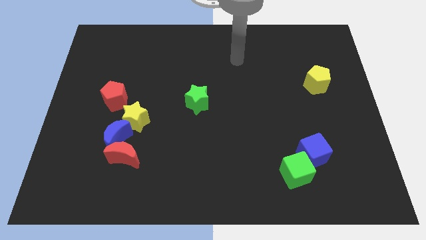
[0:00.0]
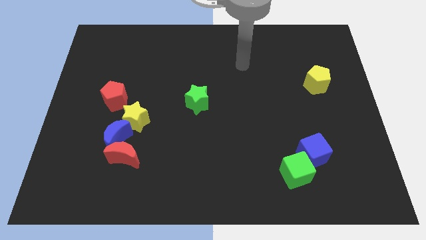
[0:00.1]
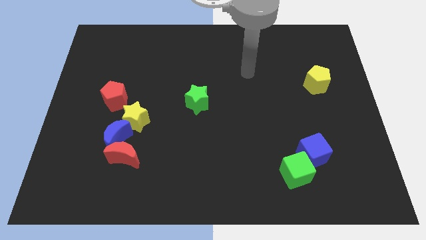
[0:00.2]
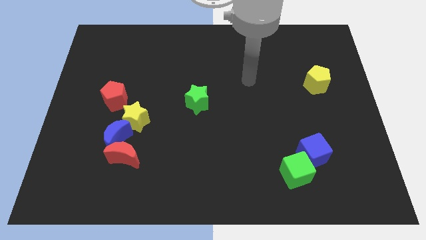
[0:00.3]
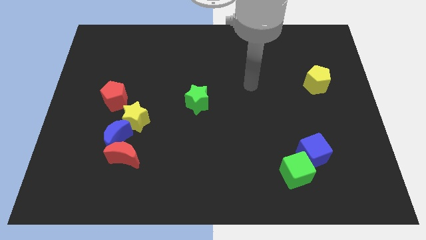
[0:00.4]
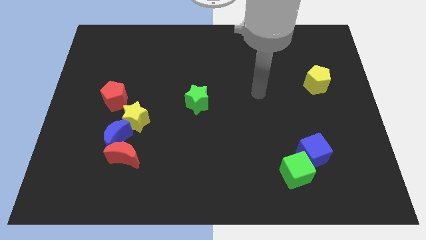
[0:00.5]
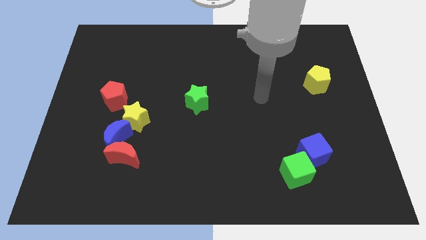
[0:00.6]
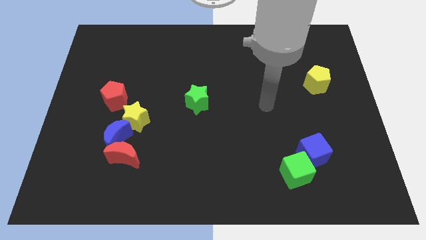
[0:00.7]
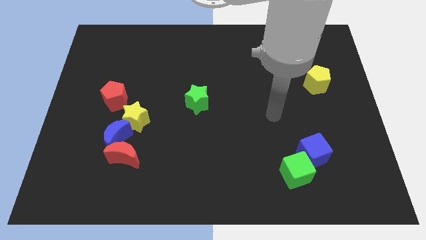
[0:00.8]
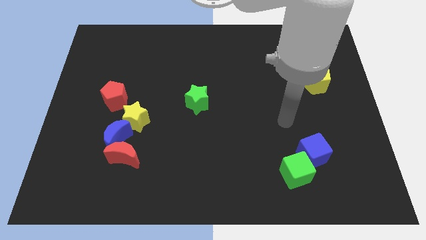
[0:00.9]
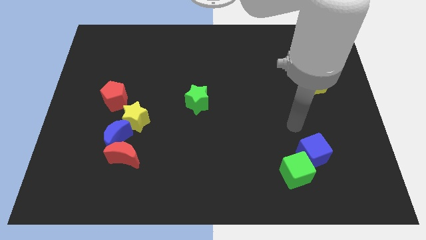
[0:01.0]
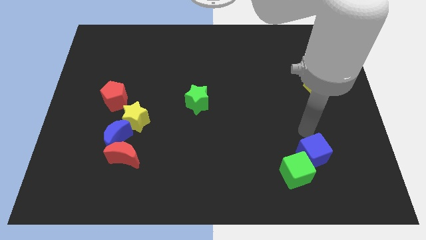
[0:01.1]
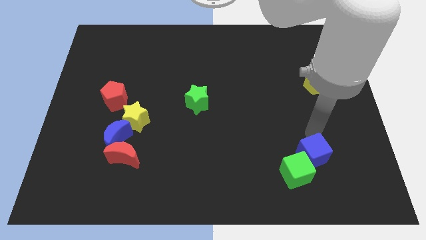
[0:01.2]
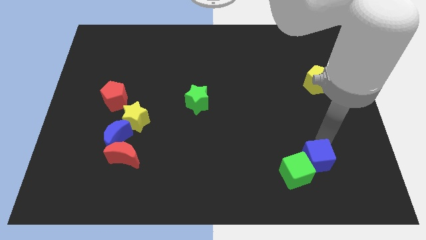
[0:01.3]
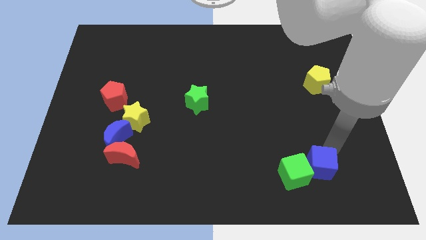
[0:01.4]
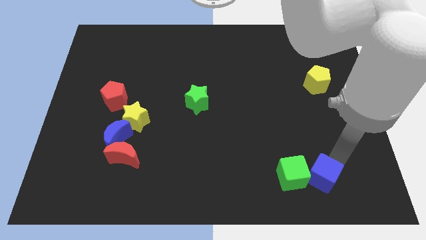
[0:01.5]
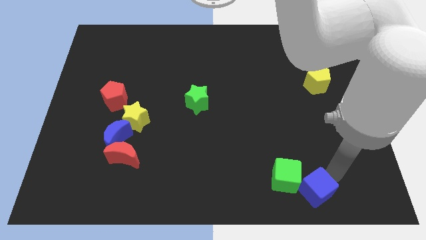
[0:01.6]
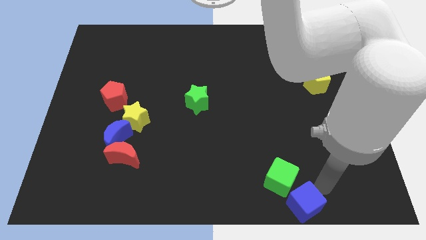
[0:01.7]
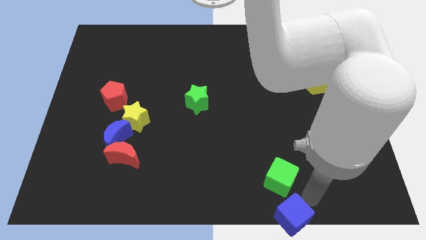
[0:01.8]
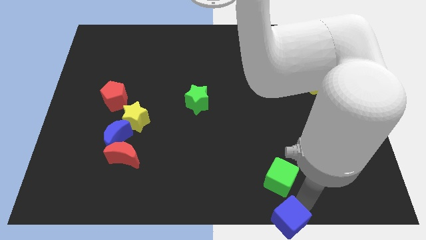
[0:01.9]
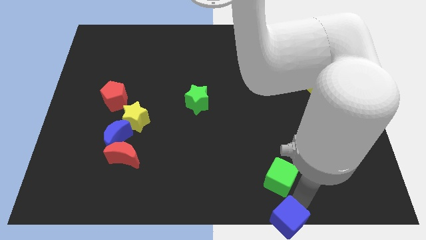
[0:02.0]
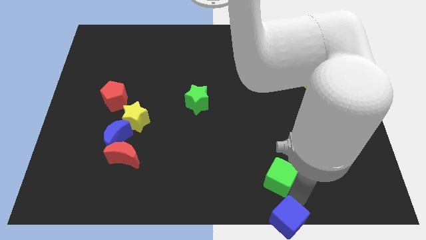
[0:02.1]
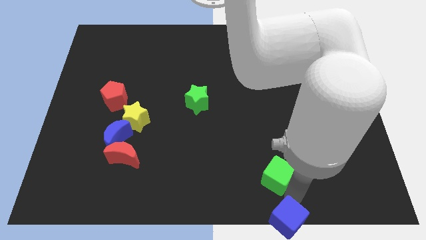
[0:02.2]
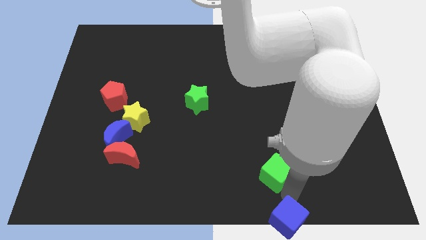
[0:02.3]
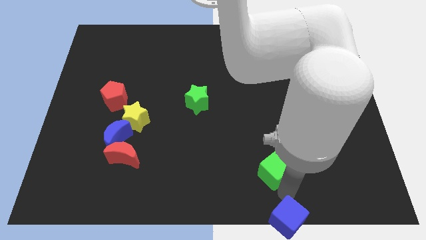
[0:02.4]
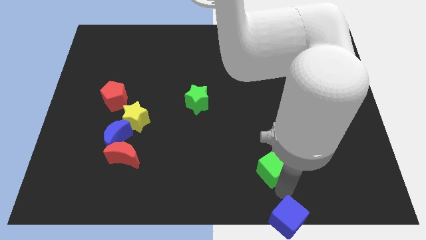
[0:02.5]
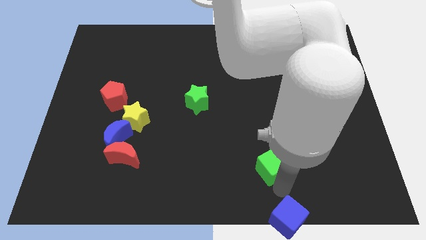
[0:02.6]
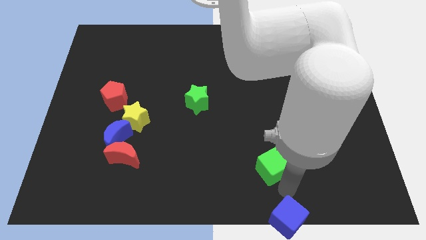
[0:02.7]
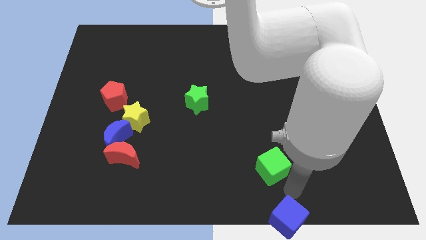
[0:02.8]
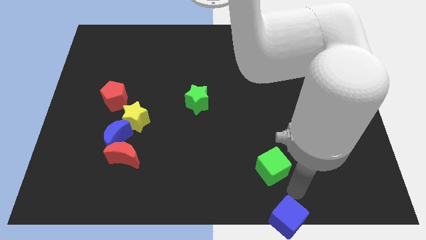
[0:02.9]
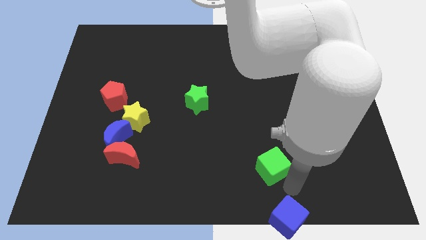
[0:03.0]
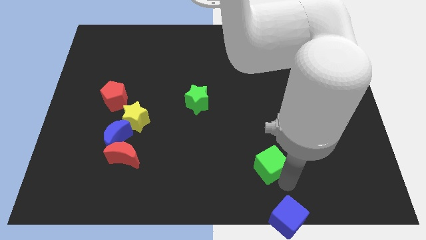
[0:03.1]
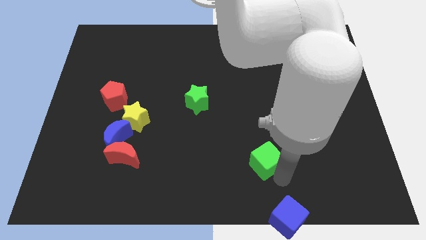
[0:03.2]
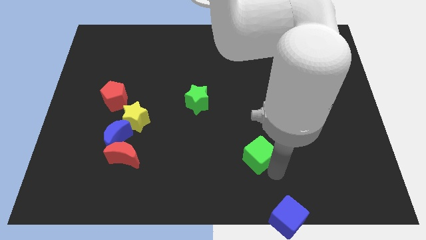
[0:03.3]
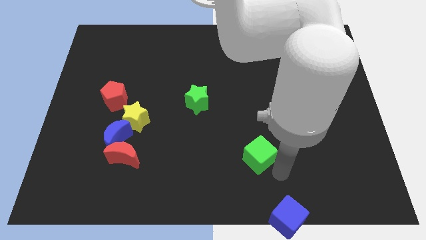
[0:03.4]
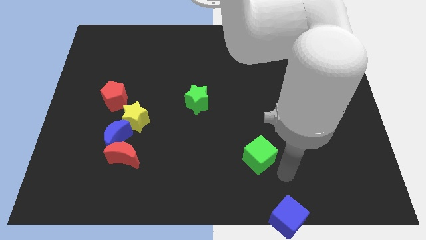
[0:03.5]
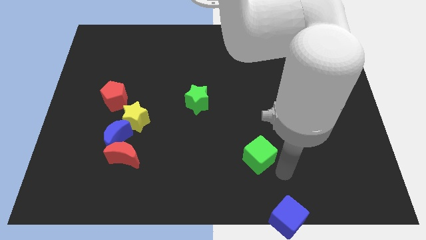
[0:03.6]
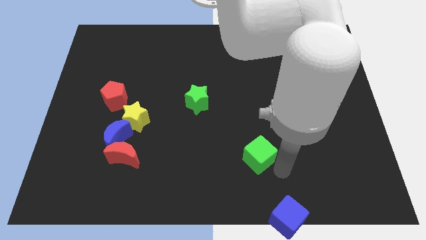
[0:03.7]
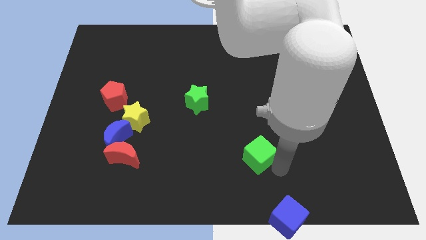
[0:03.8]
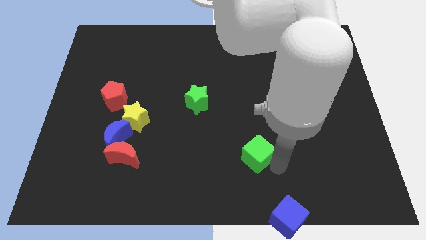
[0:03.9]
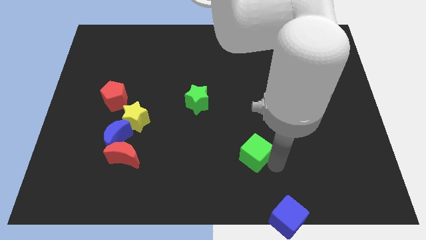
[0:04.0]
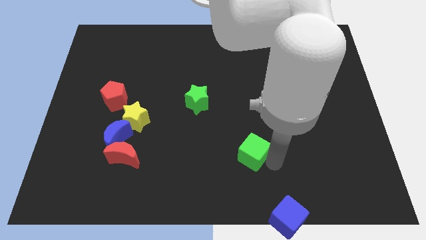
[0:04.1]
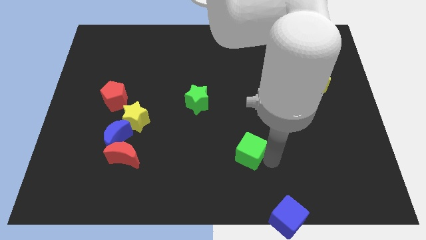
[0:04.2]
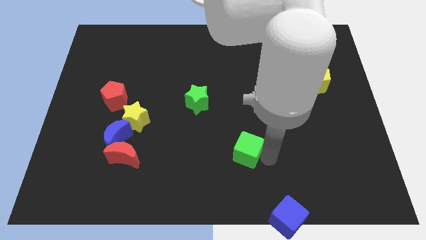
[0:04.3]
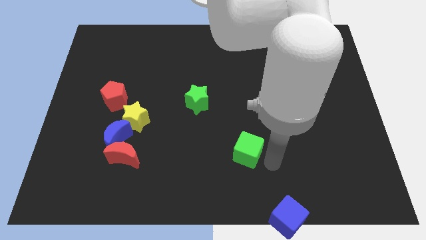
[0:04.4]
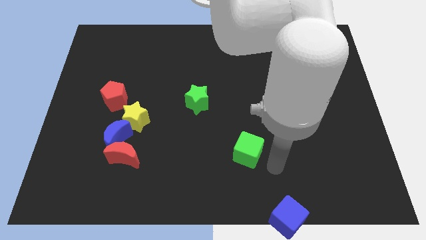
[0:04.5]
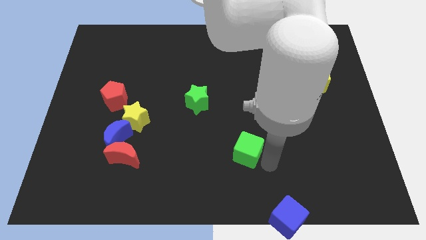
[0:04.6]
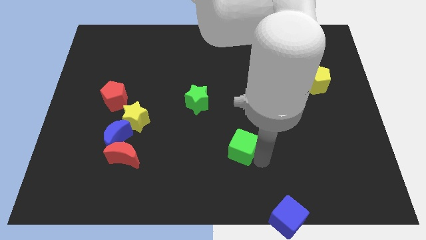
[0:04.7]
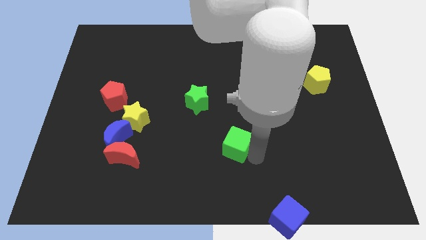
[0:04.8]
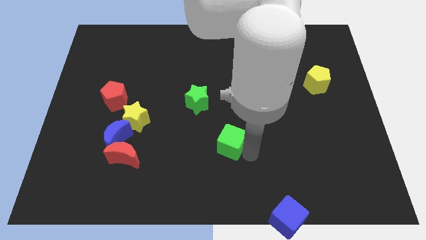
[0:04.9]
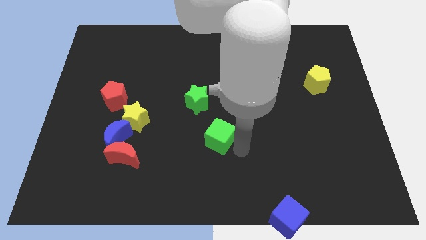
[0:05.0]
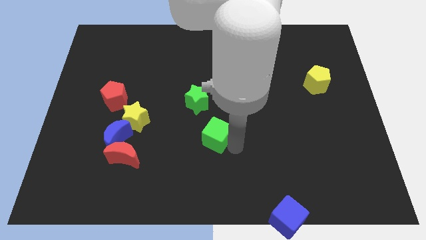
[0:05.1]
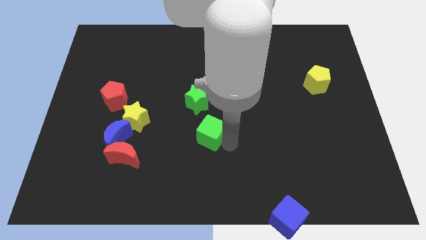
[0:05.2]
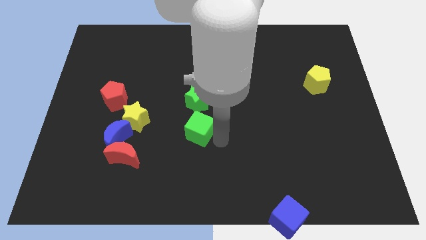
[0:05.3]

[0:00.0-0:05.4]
slide the green cube to the right of the yellow star

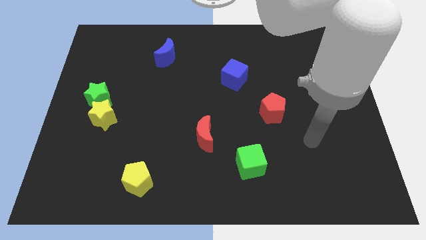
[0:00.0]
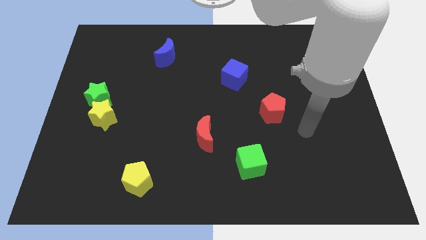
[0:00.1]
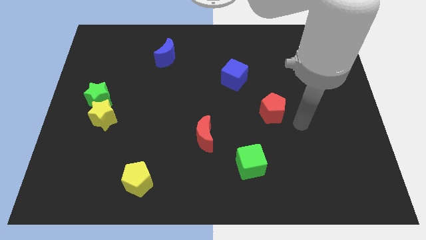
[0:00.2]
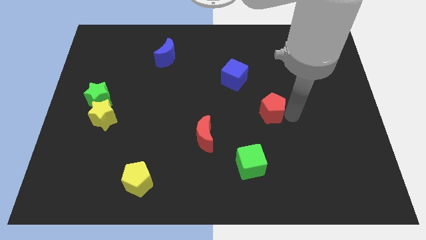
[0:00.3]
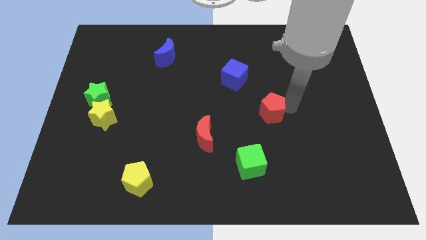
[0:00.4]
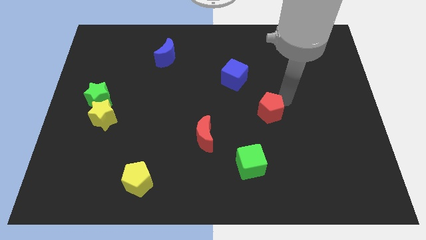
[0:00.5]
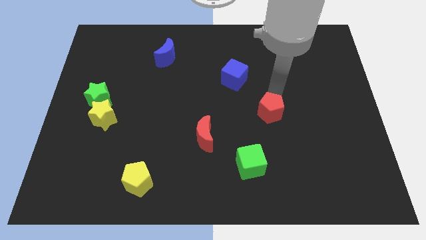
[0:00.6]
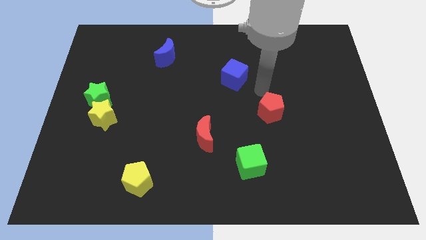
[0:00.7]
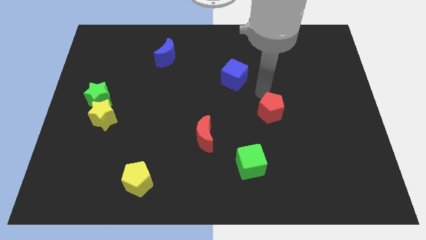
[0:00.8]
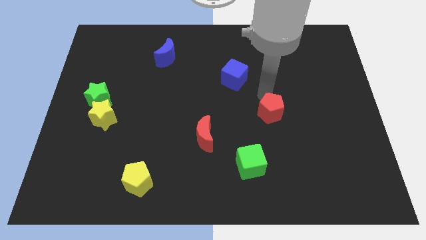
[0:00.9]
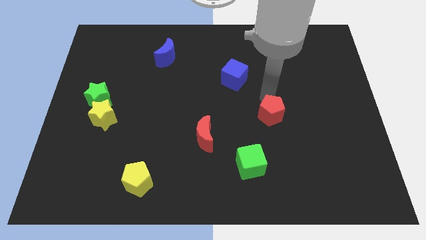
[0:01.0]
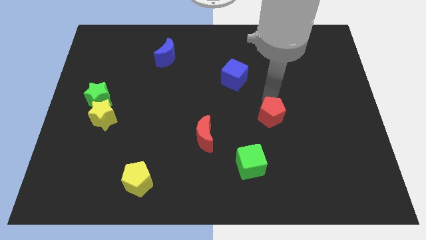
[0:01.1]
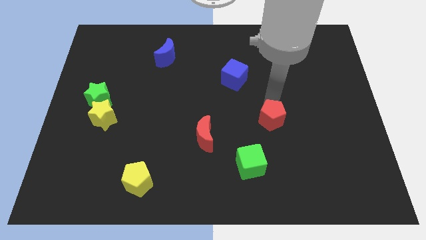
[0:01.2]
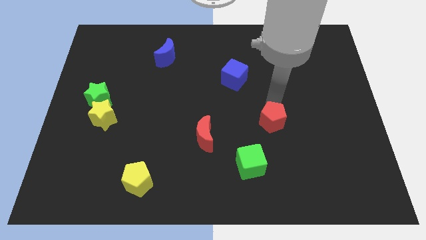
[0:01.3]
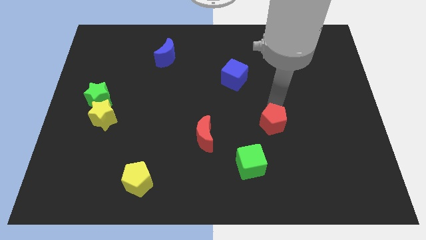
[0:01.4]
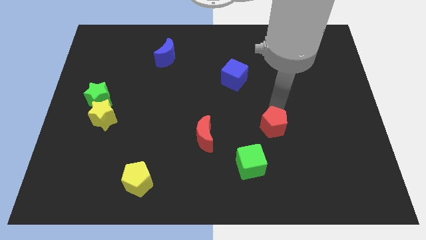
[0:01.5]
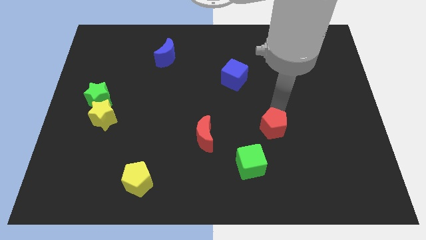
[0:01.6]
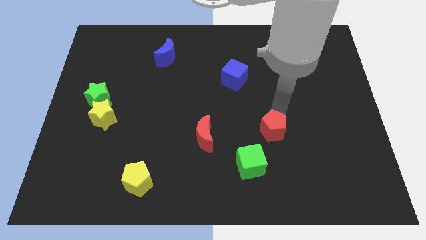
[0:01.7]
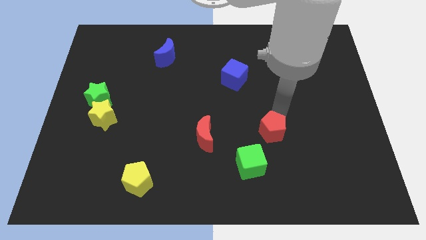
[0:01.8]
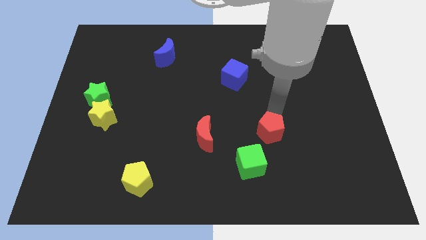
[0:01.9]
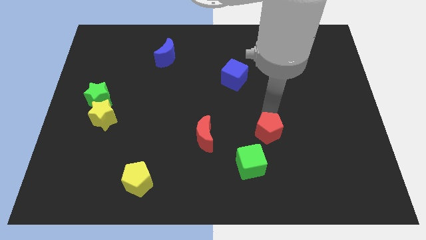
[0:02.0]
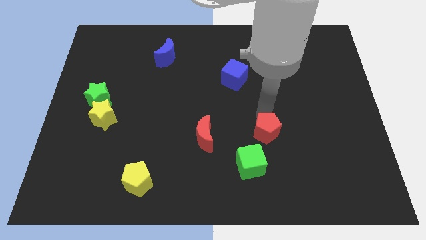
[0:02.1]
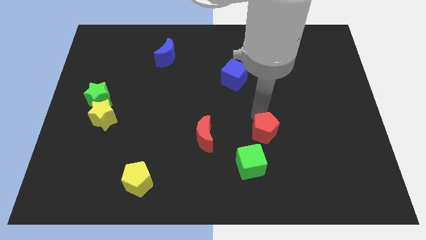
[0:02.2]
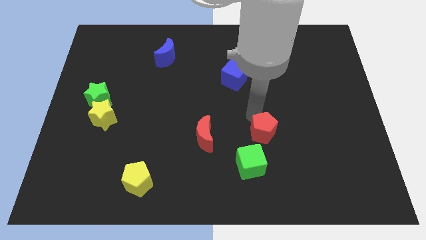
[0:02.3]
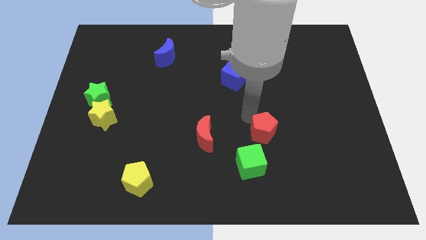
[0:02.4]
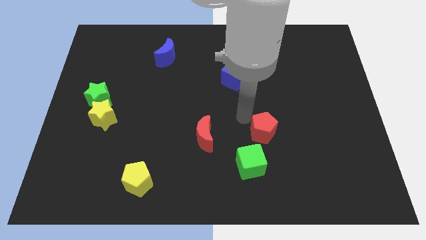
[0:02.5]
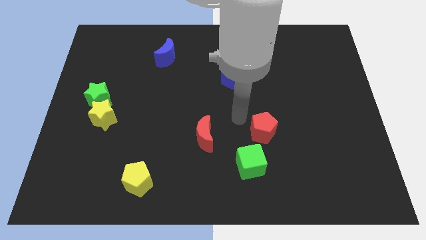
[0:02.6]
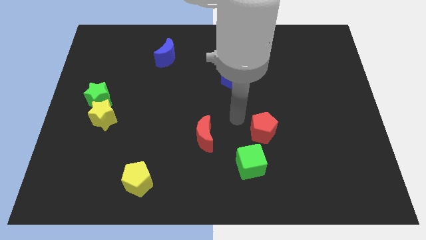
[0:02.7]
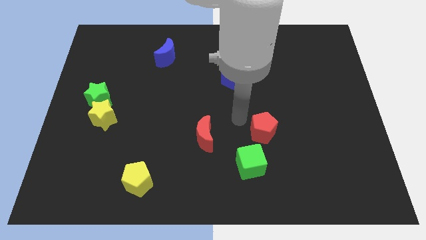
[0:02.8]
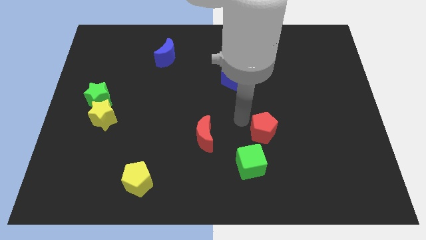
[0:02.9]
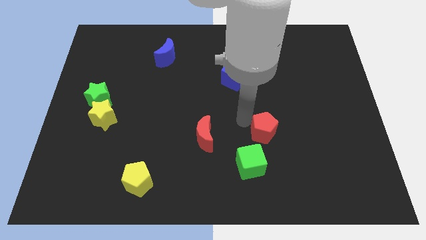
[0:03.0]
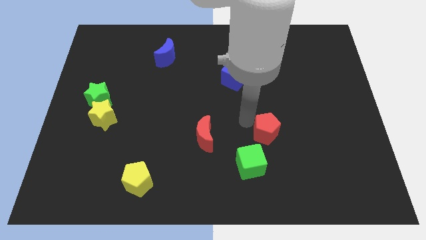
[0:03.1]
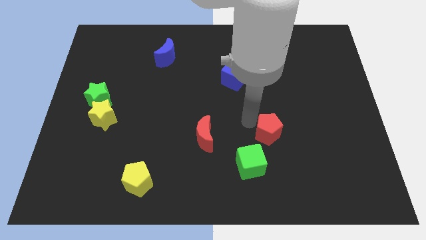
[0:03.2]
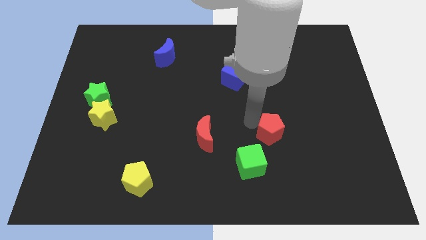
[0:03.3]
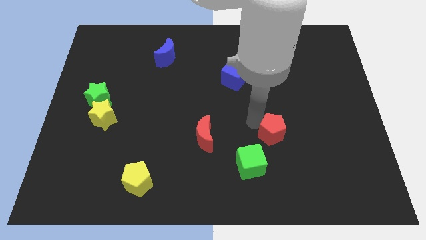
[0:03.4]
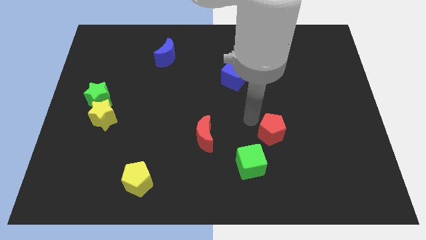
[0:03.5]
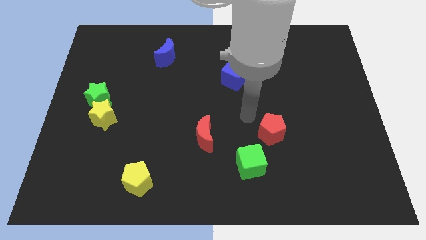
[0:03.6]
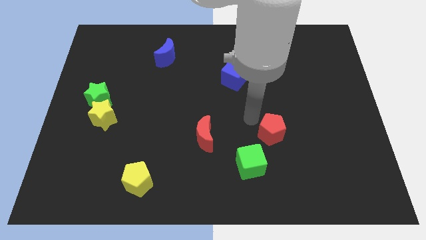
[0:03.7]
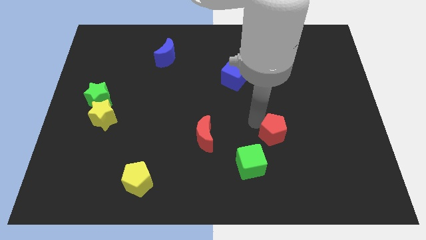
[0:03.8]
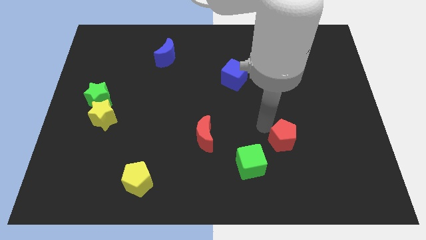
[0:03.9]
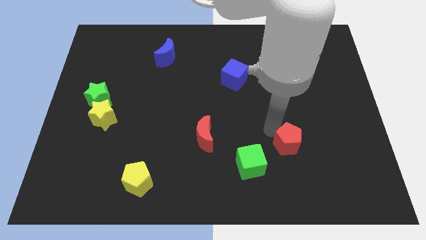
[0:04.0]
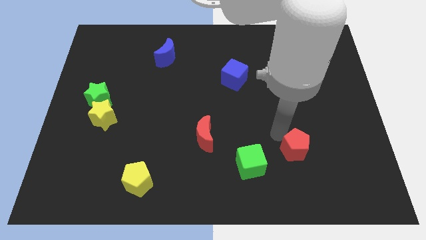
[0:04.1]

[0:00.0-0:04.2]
put the red pentagon just right of the green cube
